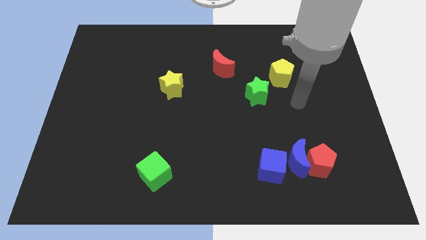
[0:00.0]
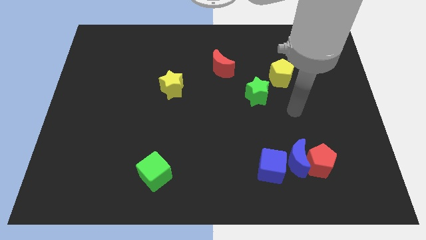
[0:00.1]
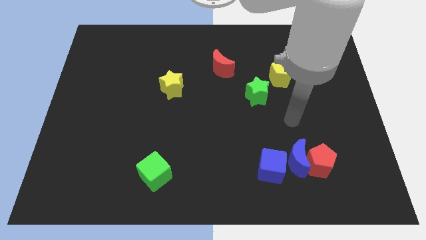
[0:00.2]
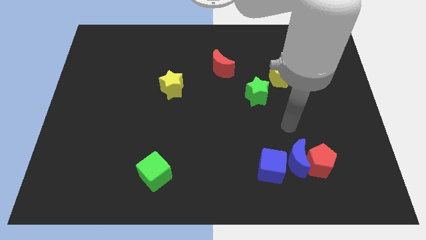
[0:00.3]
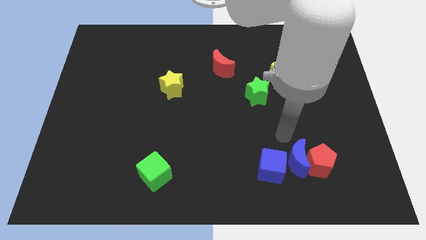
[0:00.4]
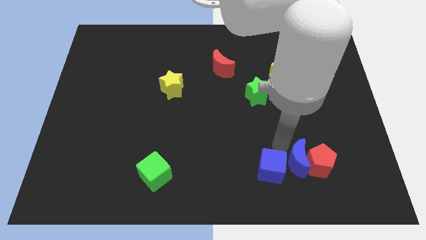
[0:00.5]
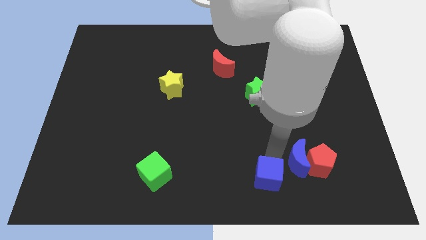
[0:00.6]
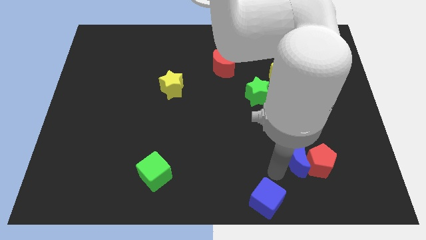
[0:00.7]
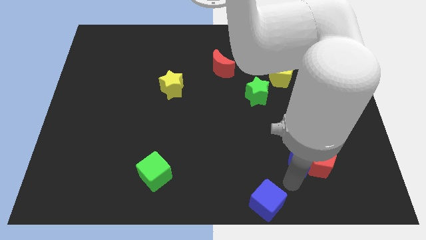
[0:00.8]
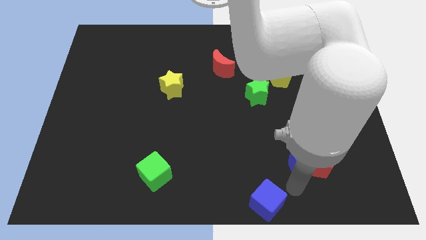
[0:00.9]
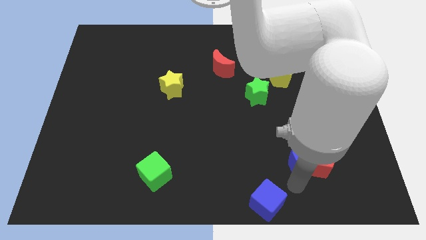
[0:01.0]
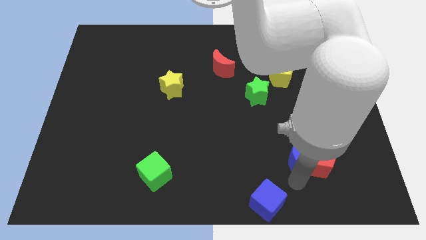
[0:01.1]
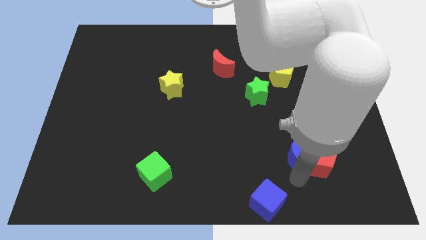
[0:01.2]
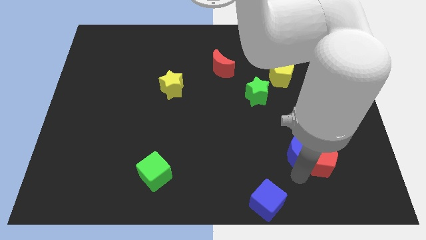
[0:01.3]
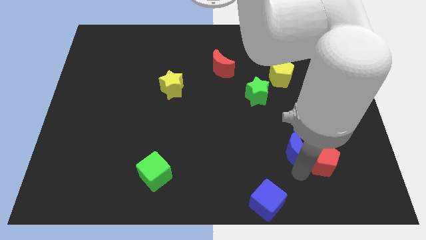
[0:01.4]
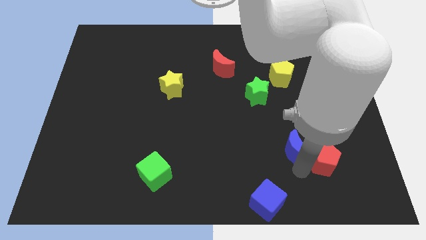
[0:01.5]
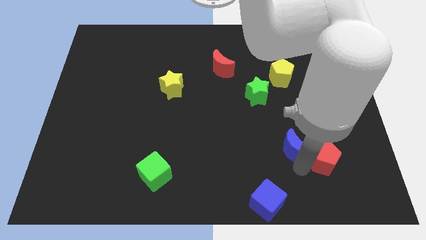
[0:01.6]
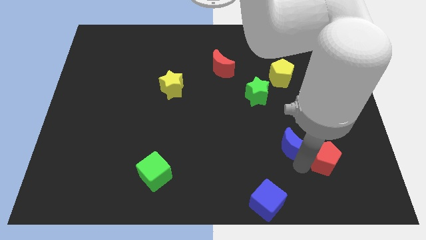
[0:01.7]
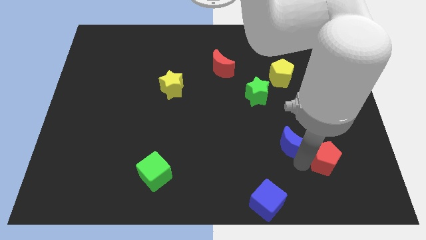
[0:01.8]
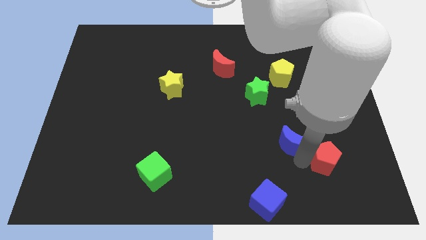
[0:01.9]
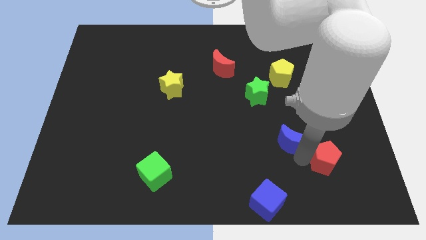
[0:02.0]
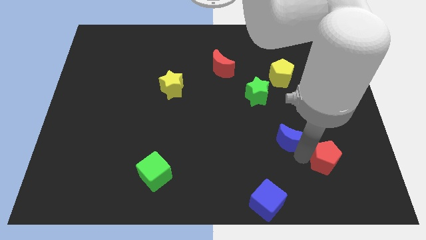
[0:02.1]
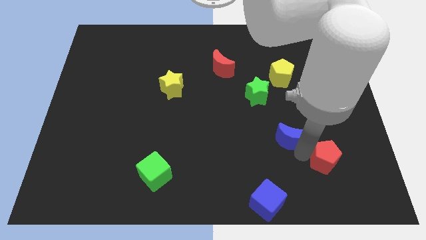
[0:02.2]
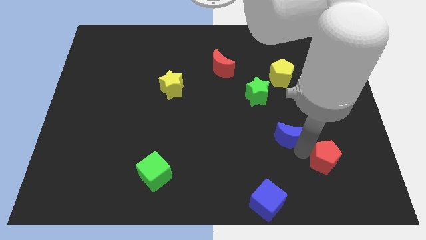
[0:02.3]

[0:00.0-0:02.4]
separate the blue moon from the red pentagon and blue cube

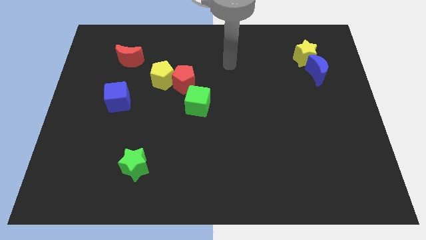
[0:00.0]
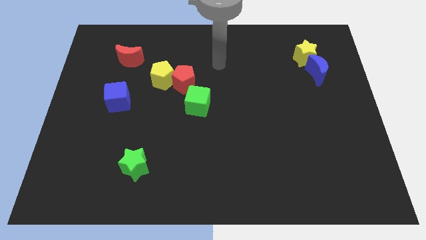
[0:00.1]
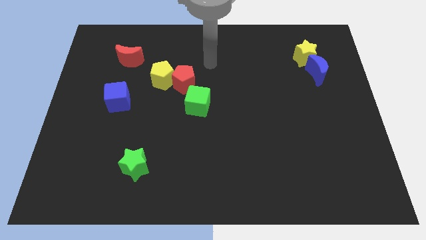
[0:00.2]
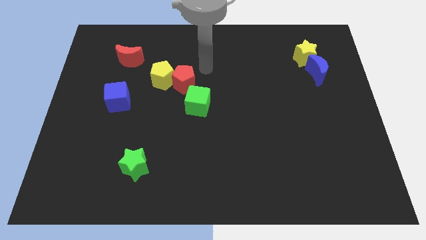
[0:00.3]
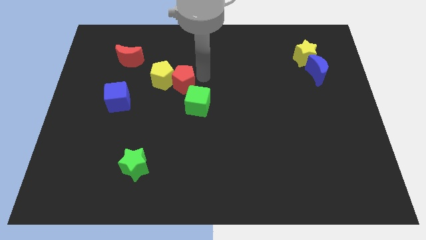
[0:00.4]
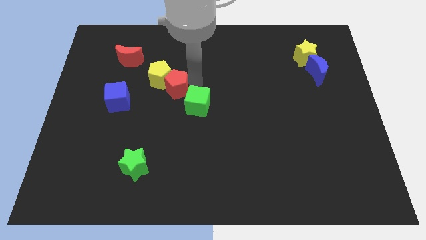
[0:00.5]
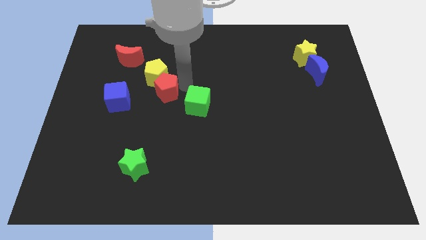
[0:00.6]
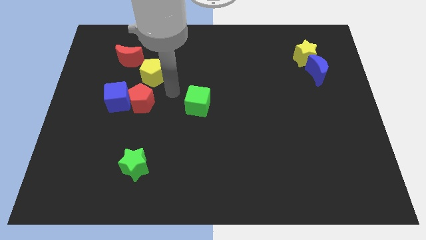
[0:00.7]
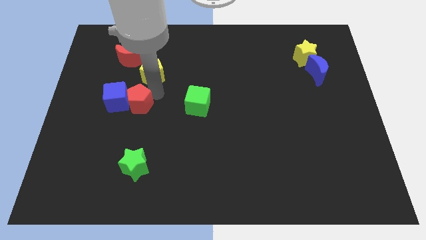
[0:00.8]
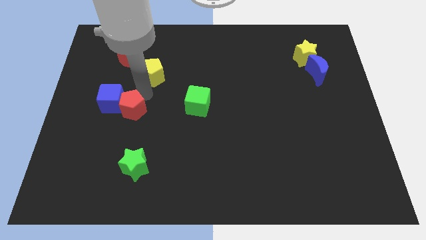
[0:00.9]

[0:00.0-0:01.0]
separate the yellow pentagon from the red pentagon

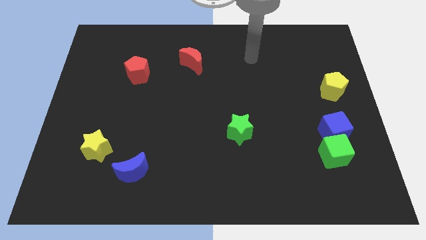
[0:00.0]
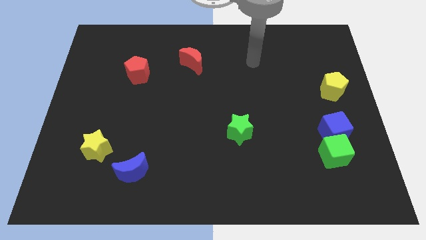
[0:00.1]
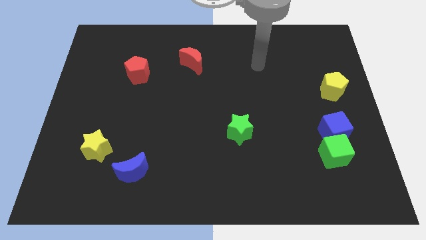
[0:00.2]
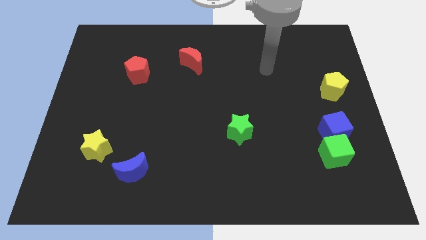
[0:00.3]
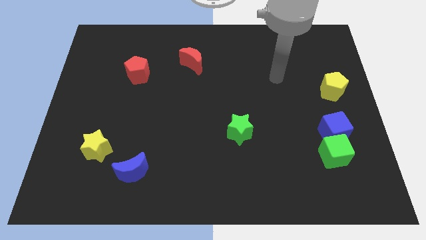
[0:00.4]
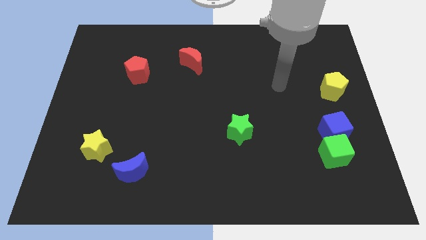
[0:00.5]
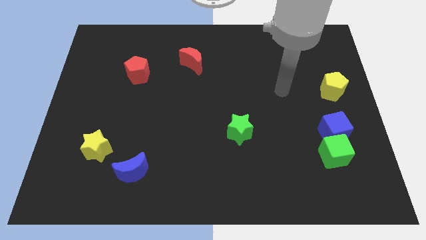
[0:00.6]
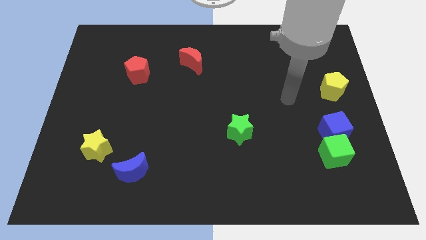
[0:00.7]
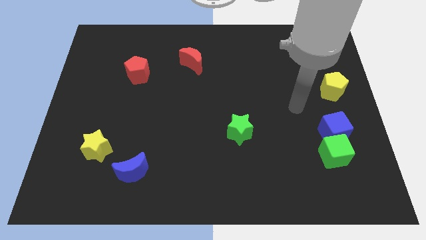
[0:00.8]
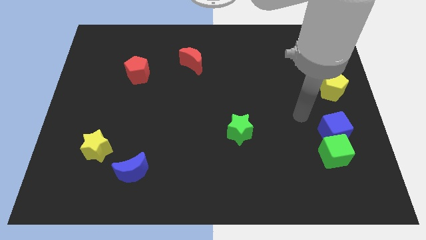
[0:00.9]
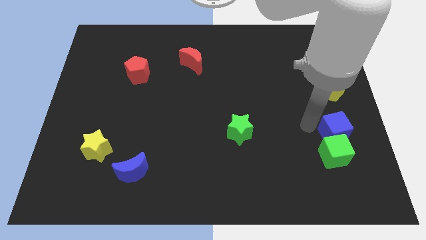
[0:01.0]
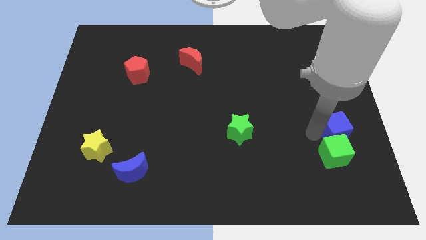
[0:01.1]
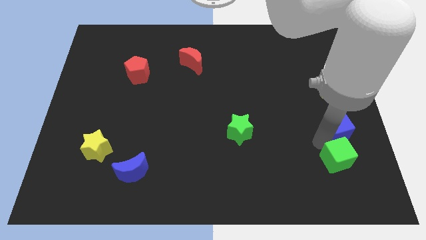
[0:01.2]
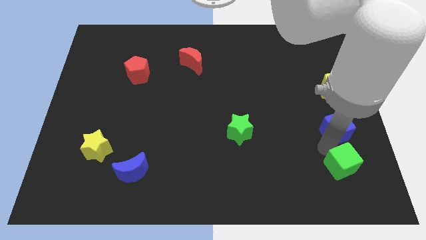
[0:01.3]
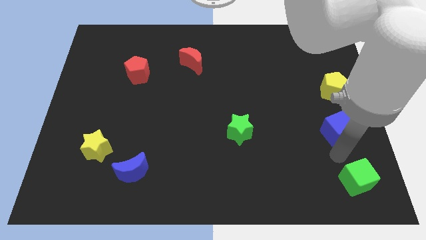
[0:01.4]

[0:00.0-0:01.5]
separate the blue cube from the green cube

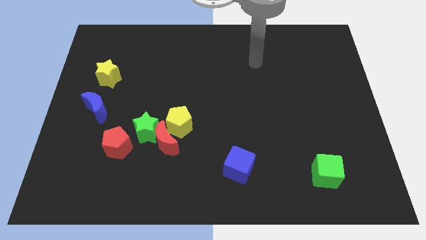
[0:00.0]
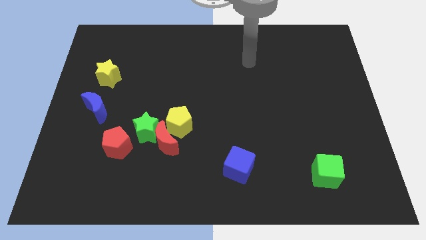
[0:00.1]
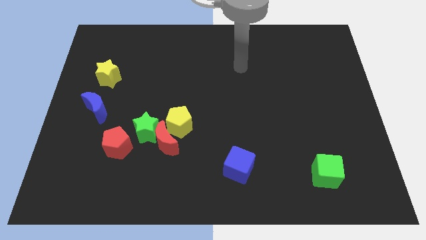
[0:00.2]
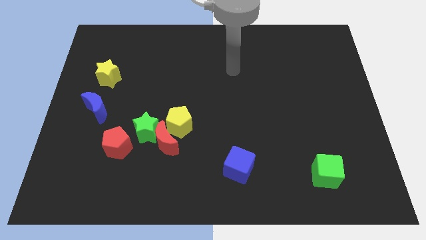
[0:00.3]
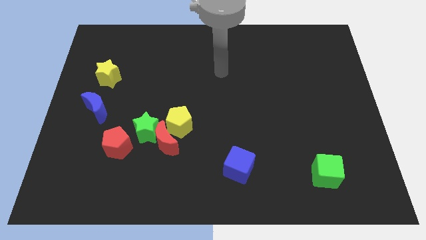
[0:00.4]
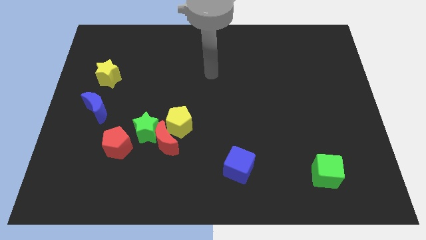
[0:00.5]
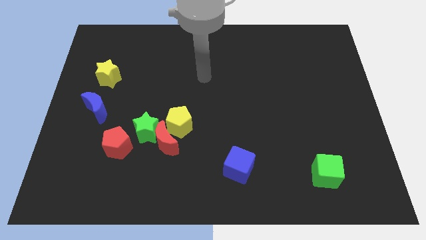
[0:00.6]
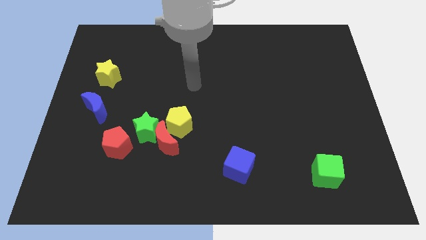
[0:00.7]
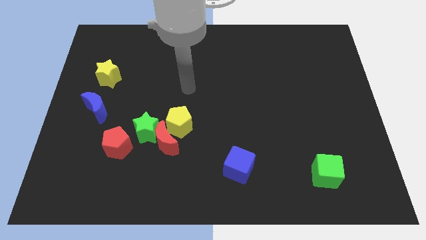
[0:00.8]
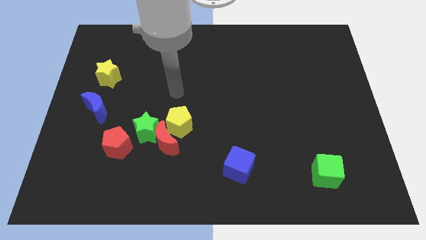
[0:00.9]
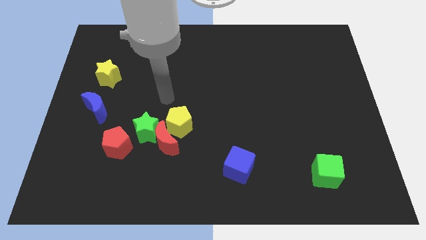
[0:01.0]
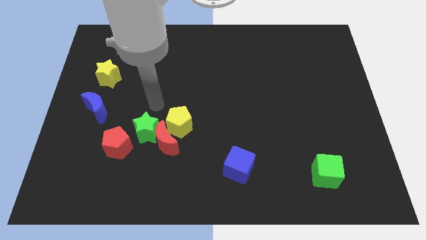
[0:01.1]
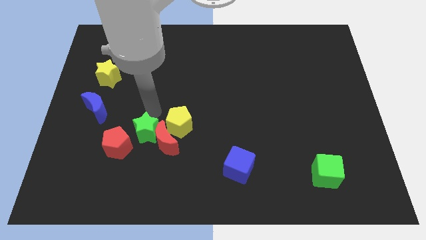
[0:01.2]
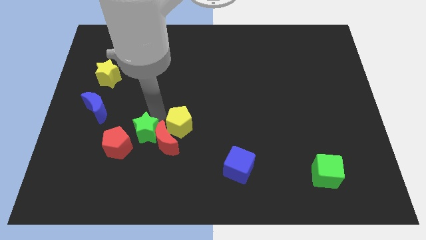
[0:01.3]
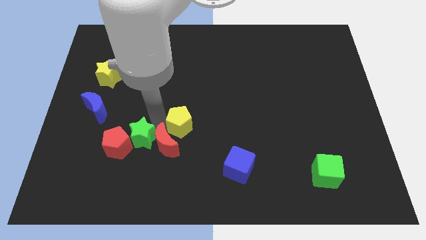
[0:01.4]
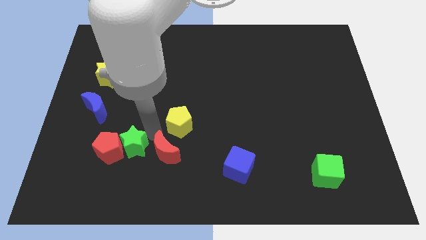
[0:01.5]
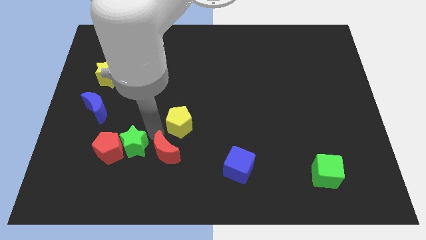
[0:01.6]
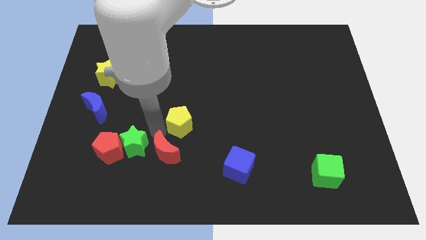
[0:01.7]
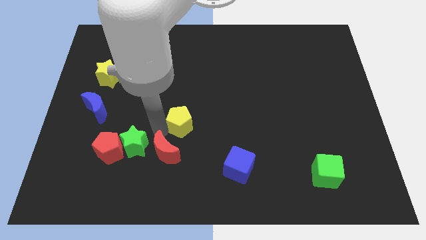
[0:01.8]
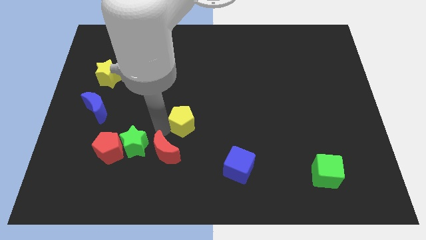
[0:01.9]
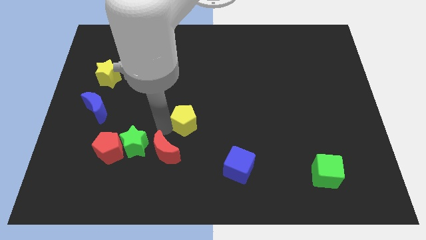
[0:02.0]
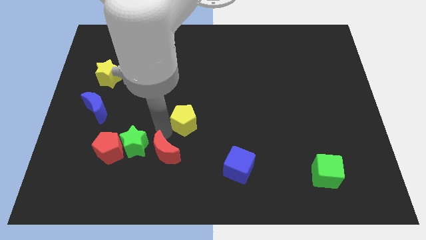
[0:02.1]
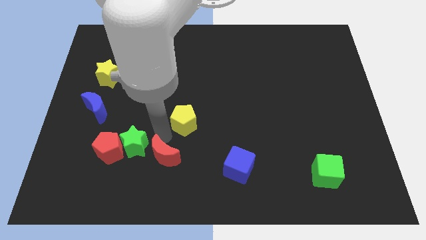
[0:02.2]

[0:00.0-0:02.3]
pull the yellow pentagon apart from the red moon and green star

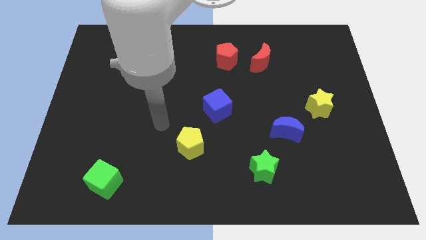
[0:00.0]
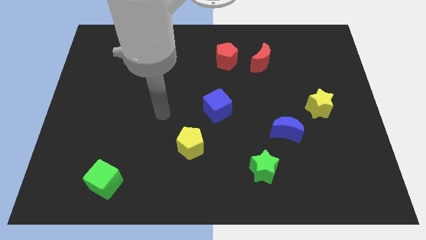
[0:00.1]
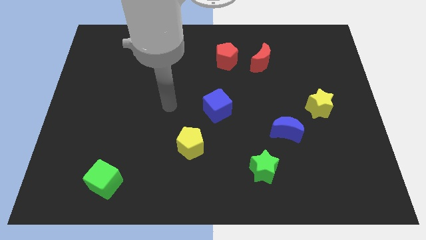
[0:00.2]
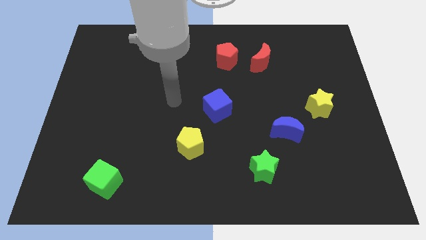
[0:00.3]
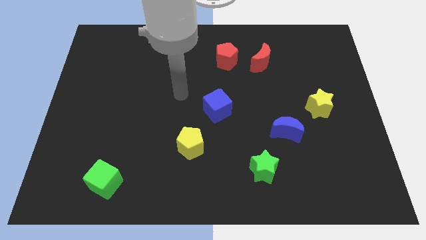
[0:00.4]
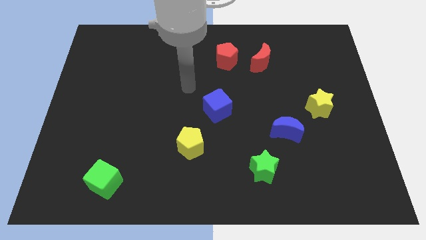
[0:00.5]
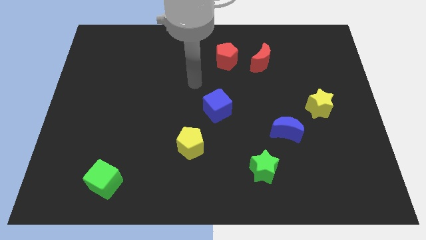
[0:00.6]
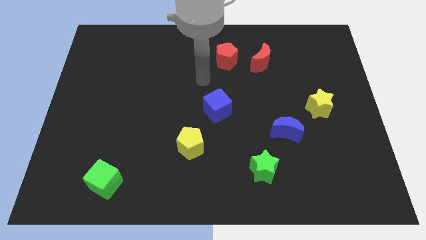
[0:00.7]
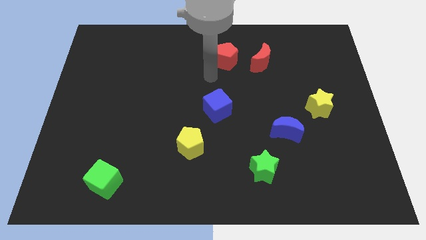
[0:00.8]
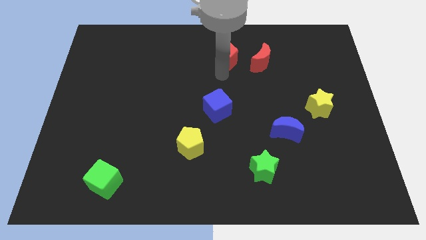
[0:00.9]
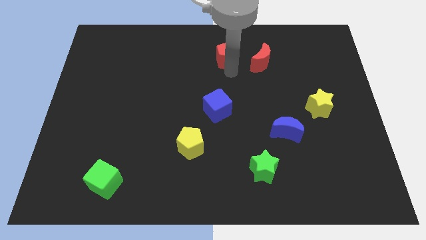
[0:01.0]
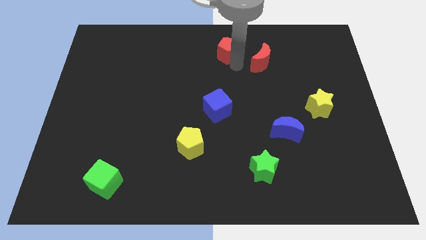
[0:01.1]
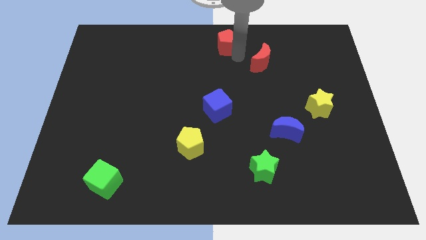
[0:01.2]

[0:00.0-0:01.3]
separate the red moon from the red pentagon

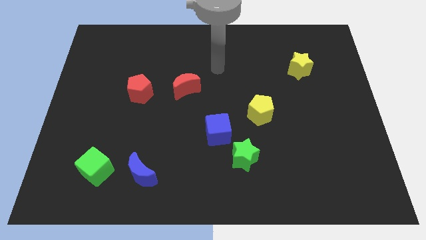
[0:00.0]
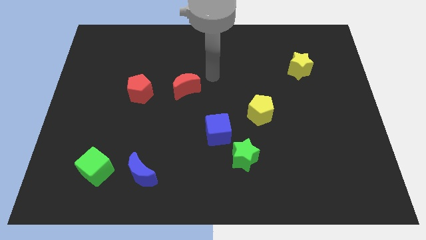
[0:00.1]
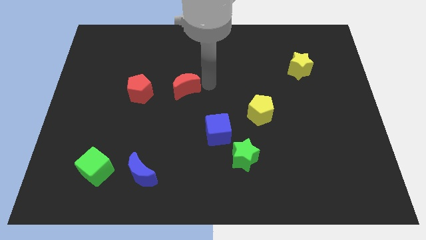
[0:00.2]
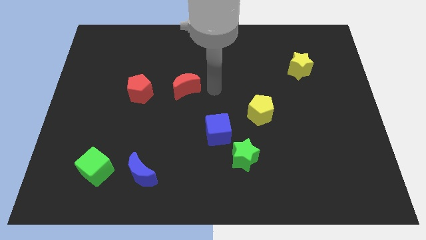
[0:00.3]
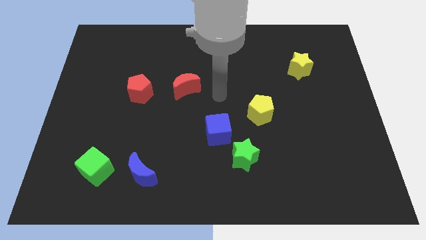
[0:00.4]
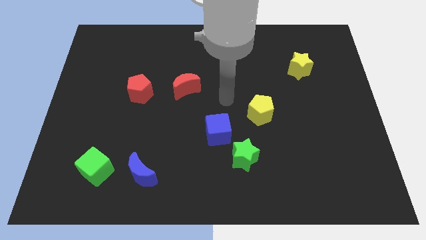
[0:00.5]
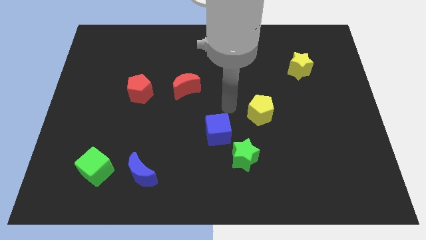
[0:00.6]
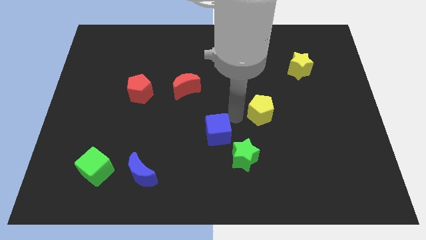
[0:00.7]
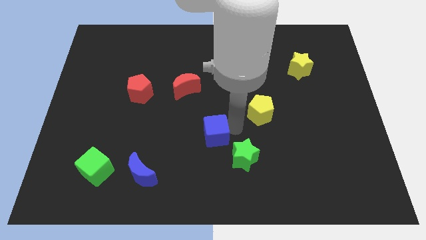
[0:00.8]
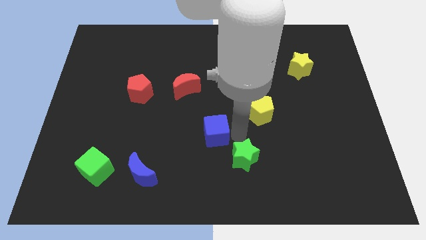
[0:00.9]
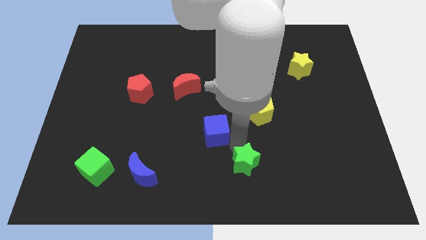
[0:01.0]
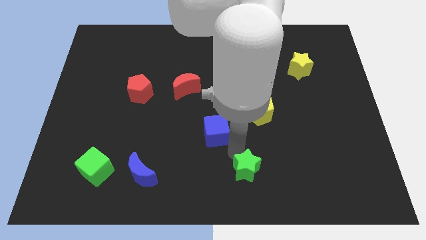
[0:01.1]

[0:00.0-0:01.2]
pull the blue cube apart from the green star
